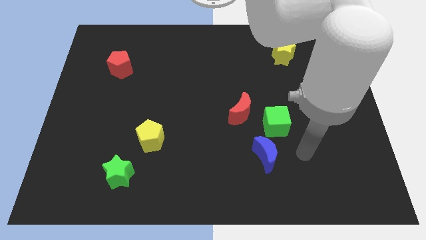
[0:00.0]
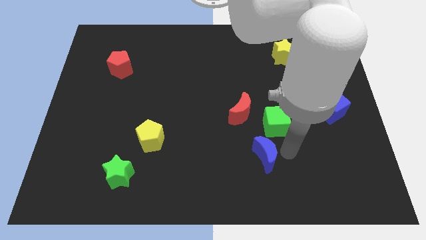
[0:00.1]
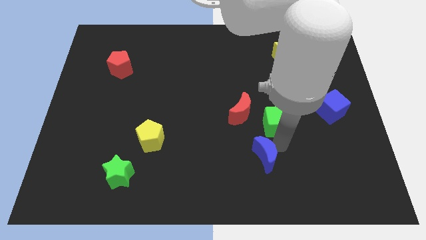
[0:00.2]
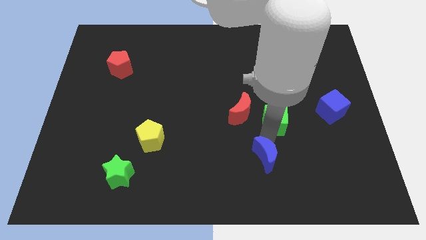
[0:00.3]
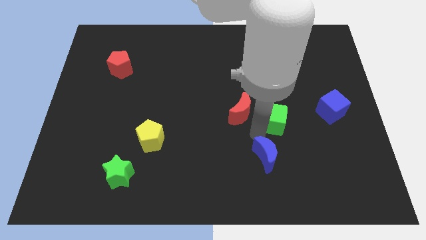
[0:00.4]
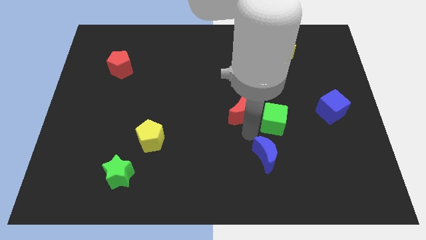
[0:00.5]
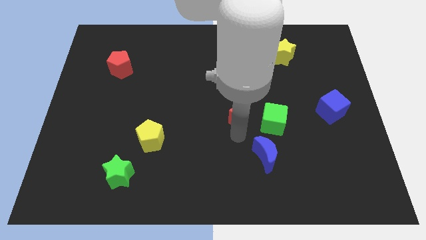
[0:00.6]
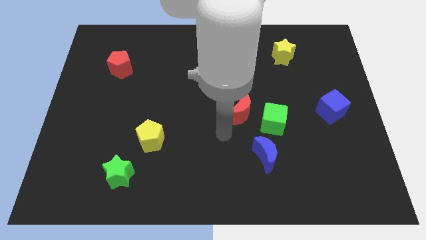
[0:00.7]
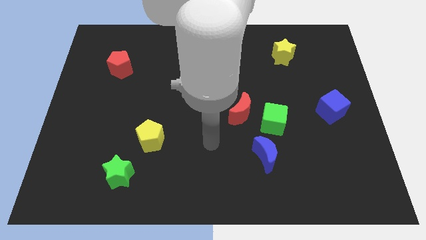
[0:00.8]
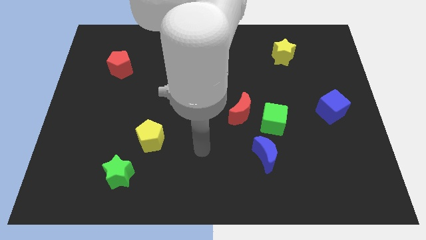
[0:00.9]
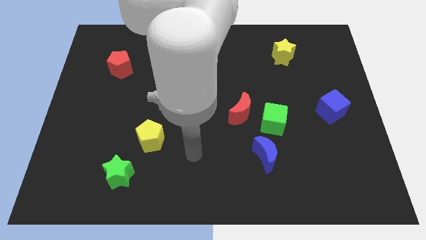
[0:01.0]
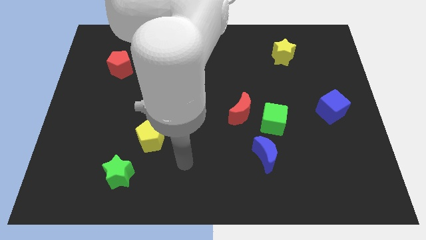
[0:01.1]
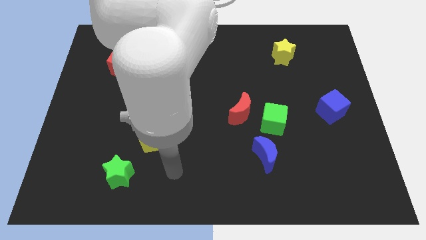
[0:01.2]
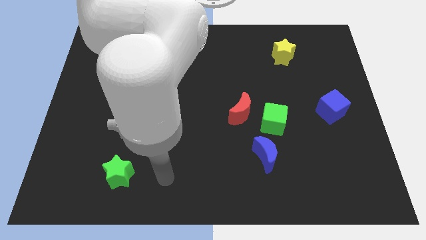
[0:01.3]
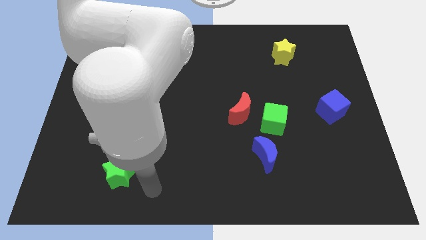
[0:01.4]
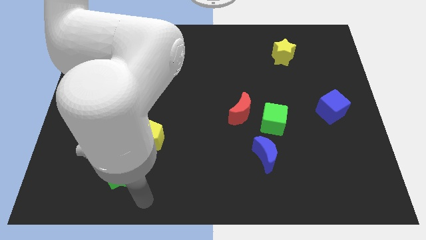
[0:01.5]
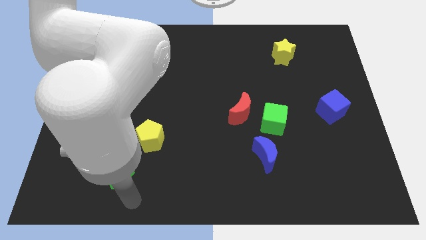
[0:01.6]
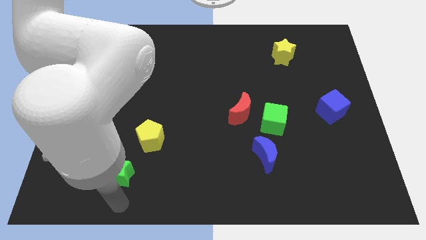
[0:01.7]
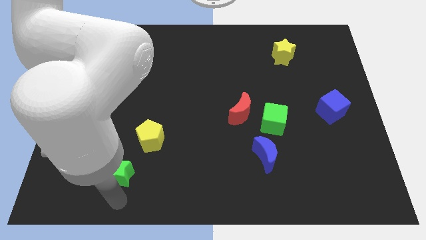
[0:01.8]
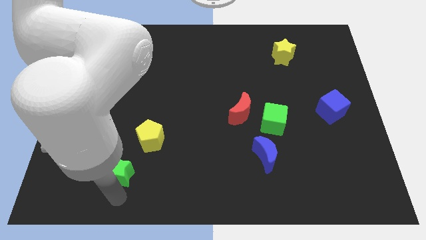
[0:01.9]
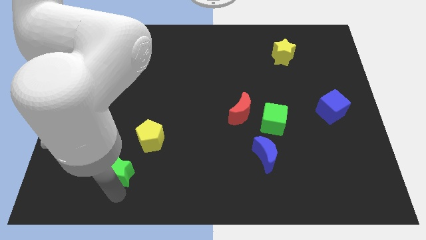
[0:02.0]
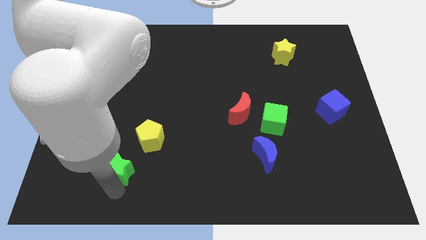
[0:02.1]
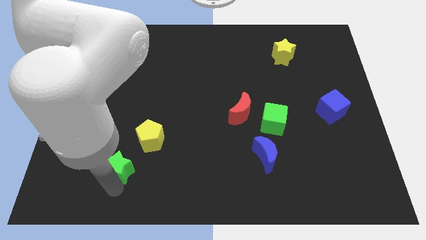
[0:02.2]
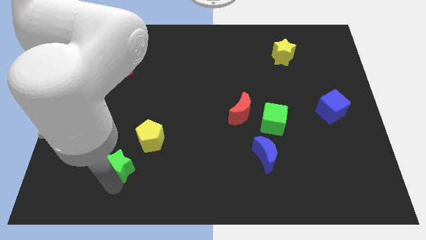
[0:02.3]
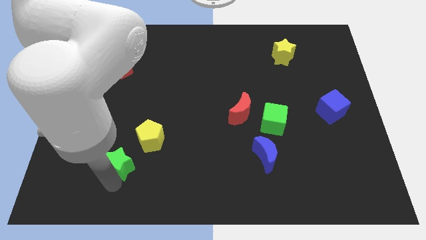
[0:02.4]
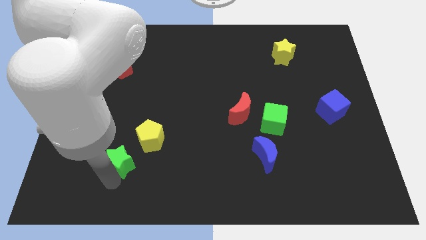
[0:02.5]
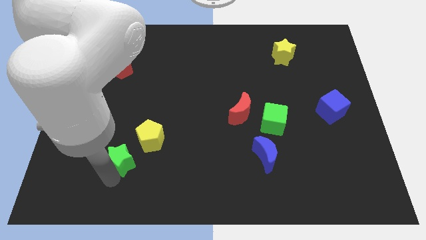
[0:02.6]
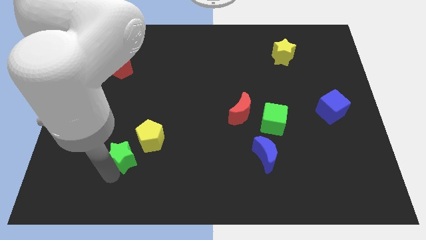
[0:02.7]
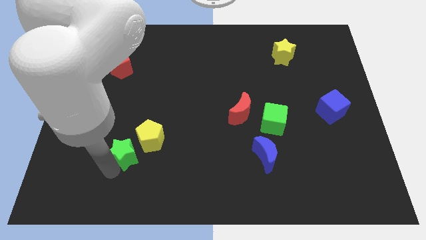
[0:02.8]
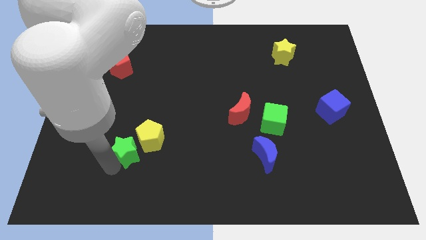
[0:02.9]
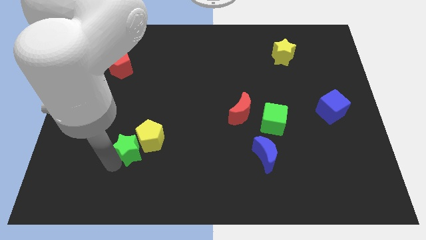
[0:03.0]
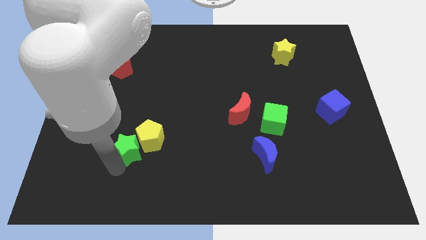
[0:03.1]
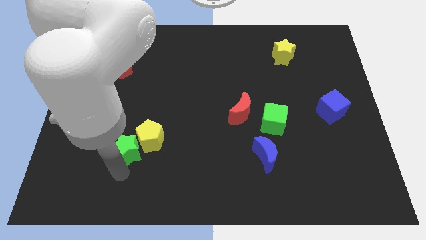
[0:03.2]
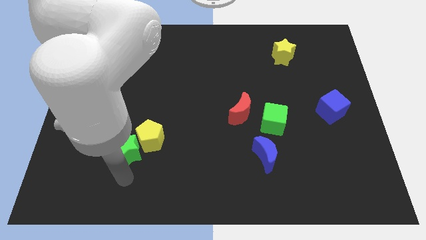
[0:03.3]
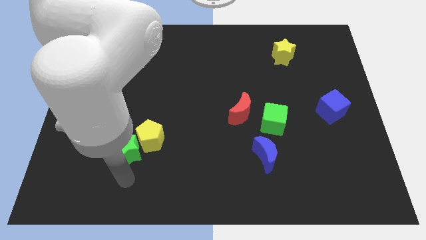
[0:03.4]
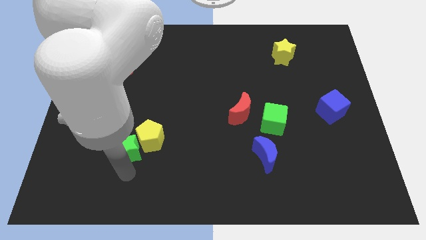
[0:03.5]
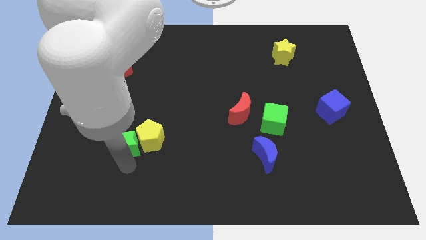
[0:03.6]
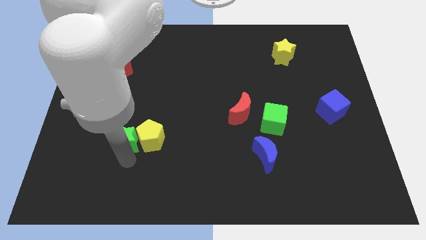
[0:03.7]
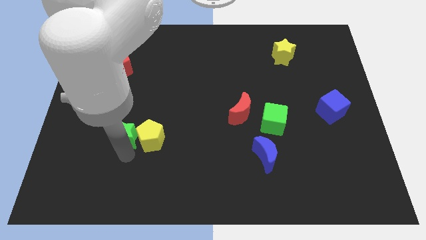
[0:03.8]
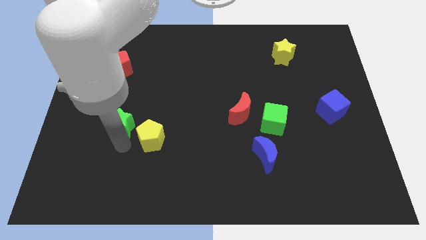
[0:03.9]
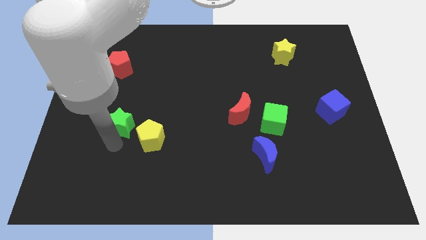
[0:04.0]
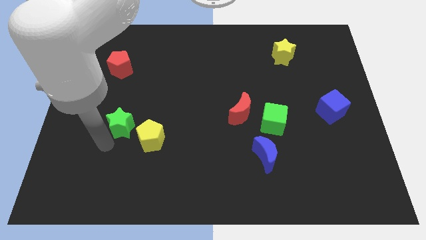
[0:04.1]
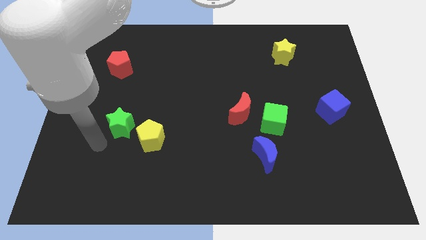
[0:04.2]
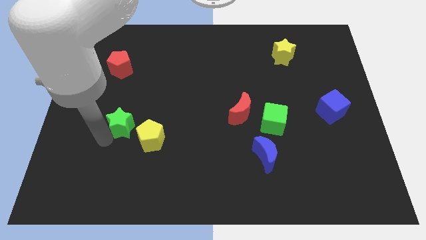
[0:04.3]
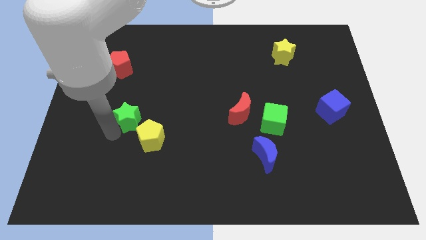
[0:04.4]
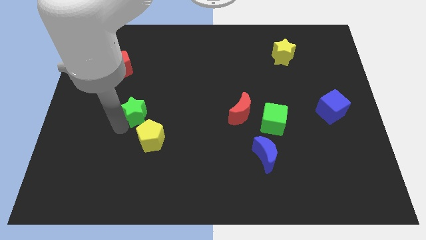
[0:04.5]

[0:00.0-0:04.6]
move the green star to the top side of the yellow pentagon

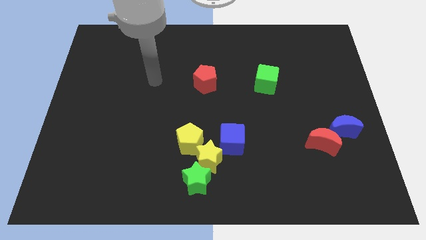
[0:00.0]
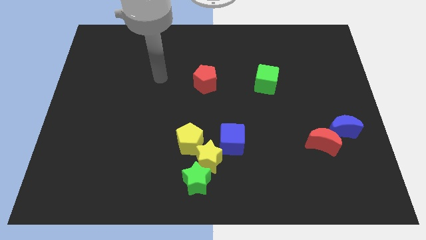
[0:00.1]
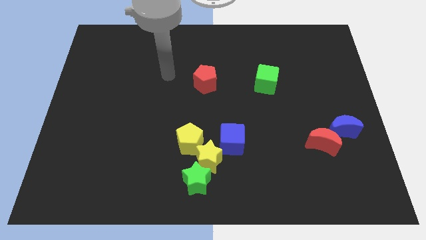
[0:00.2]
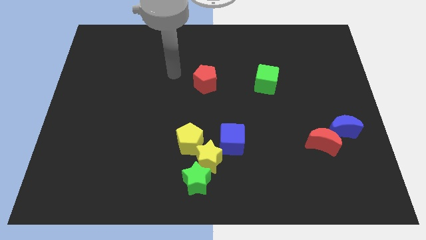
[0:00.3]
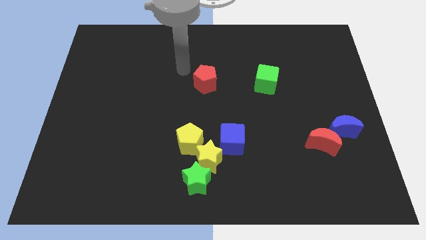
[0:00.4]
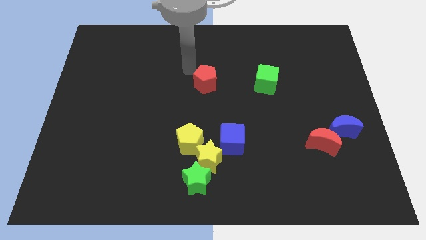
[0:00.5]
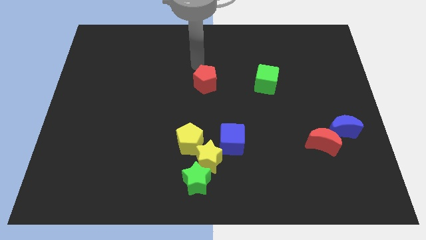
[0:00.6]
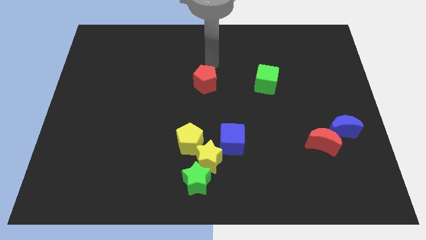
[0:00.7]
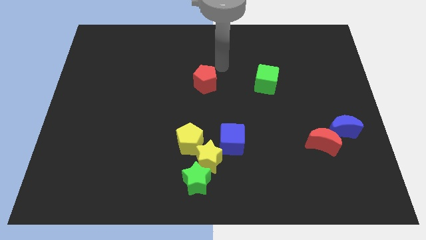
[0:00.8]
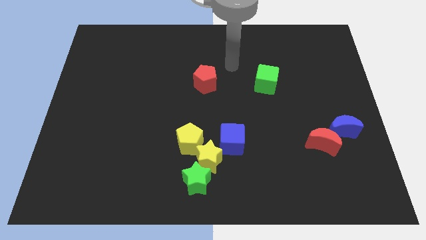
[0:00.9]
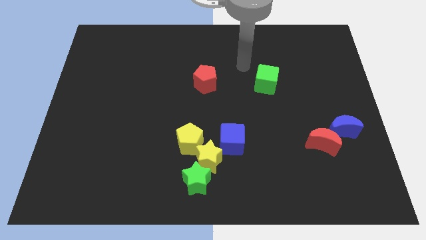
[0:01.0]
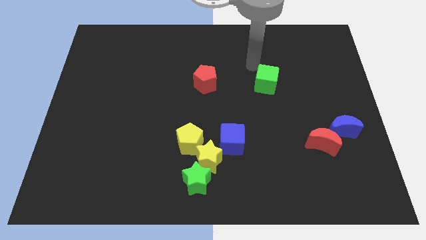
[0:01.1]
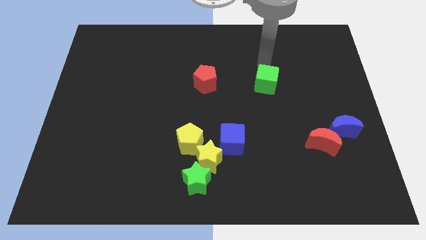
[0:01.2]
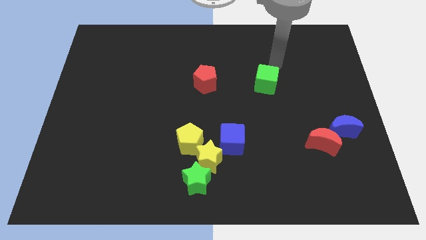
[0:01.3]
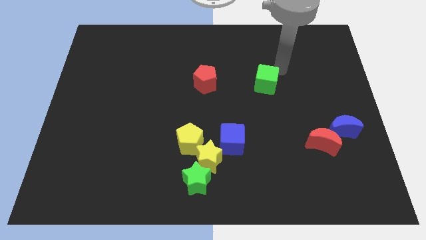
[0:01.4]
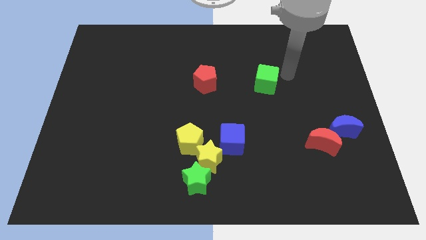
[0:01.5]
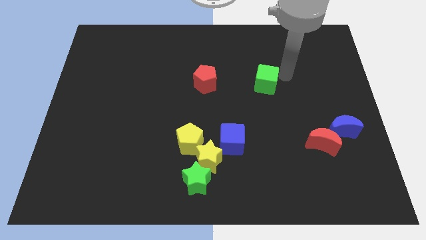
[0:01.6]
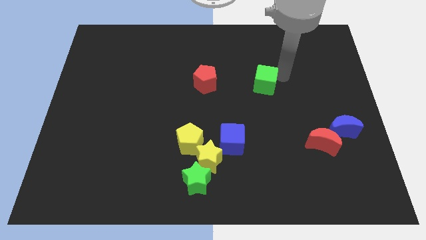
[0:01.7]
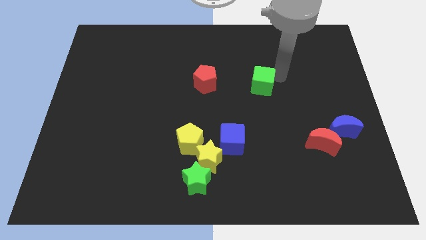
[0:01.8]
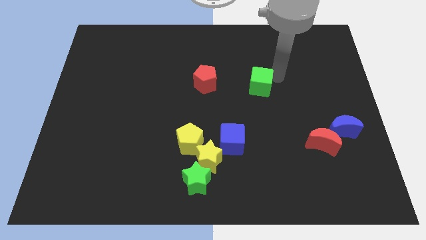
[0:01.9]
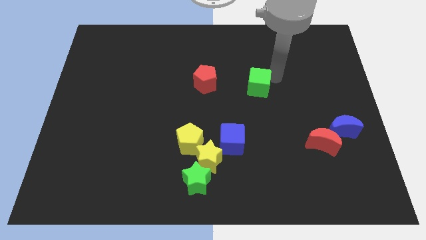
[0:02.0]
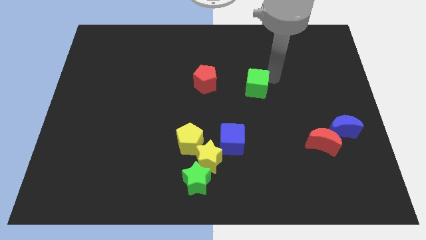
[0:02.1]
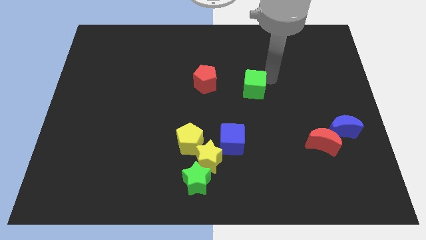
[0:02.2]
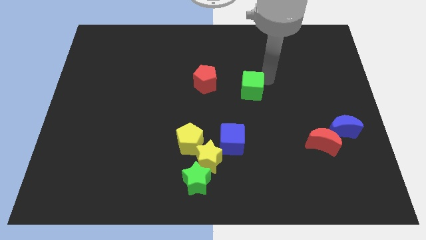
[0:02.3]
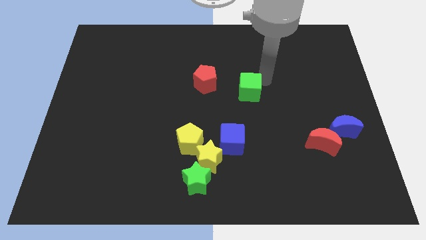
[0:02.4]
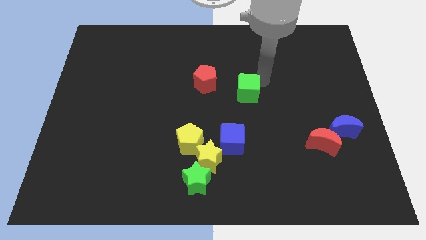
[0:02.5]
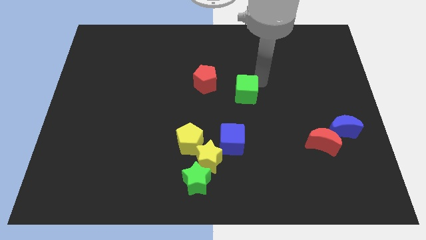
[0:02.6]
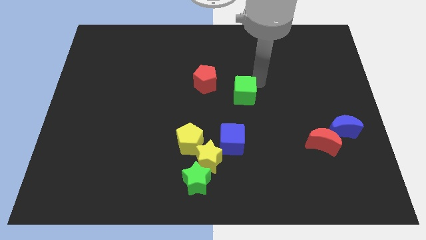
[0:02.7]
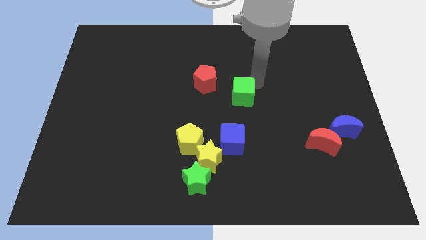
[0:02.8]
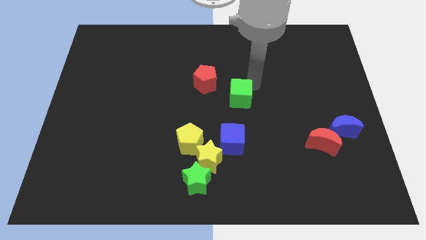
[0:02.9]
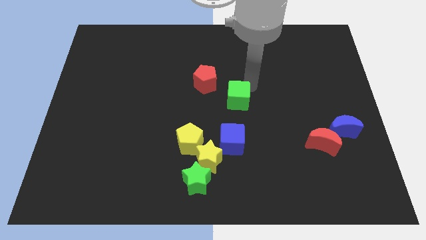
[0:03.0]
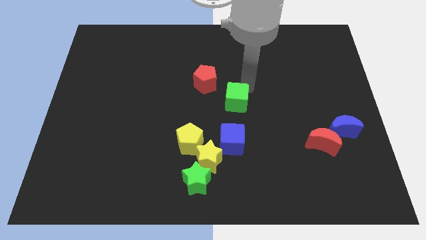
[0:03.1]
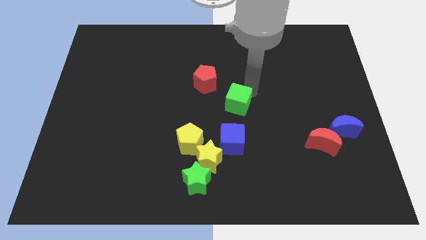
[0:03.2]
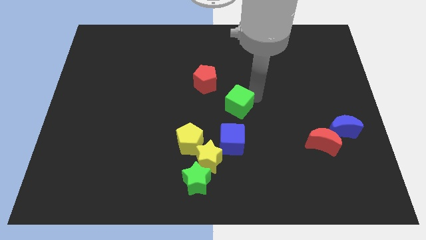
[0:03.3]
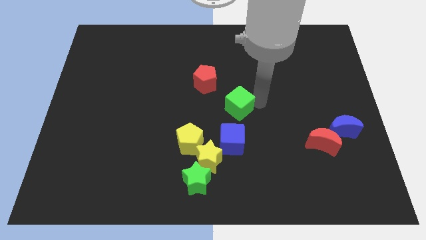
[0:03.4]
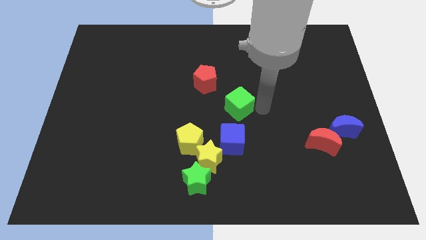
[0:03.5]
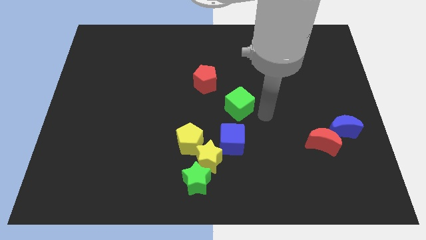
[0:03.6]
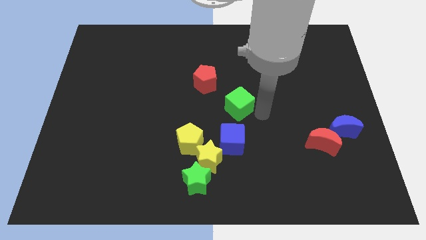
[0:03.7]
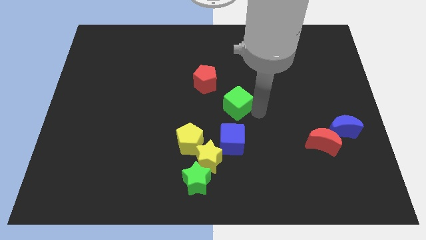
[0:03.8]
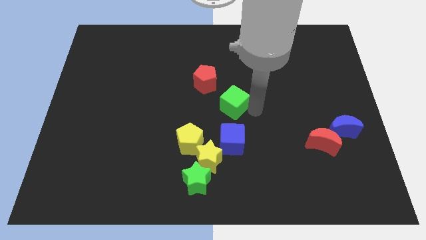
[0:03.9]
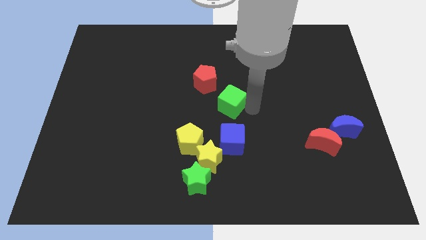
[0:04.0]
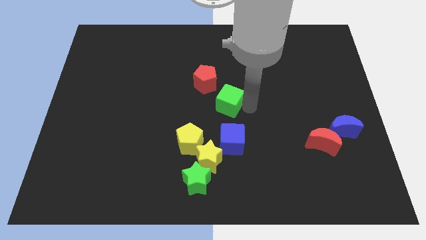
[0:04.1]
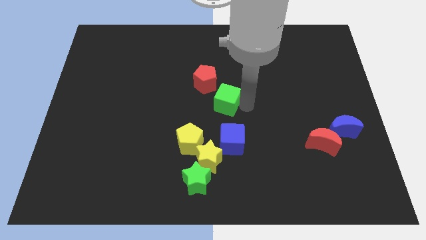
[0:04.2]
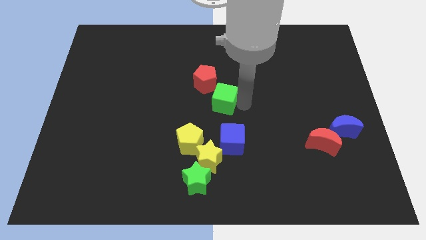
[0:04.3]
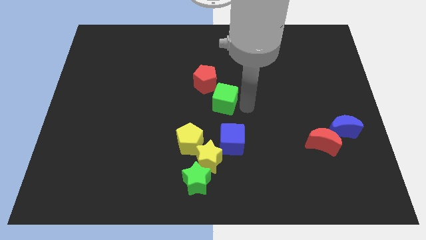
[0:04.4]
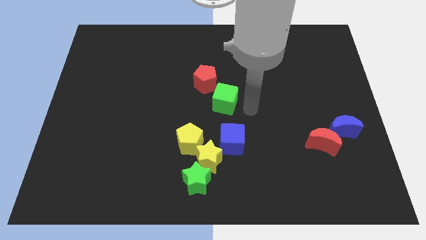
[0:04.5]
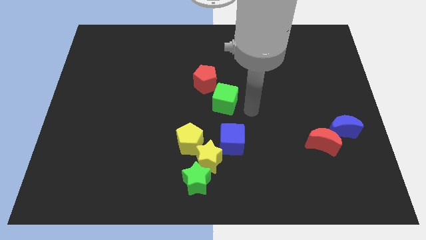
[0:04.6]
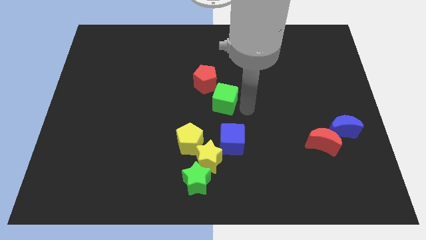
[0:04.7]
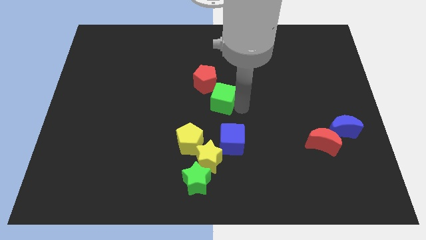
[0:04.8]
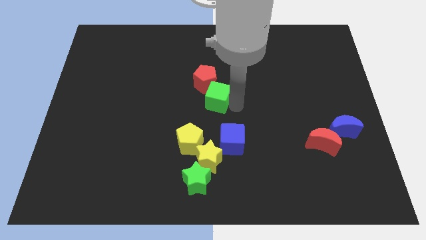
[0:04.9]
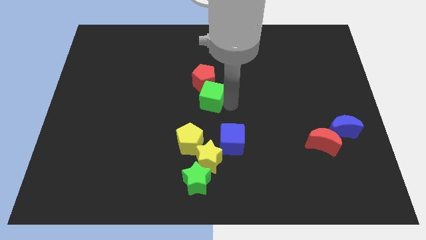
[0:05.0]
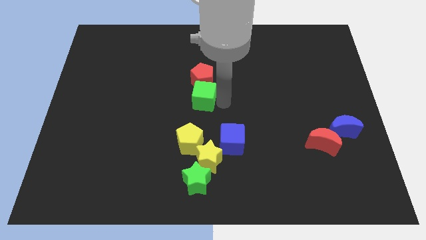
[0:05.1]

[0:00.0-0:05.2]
put the green cube to the bottom left of the red pentagon
